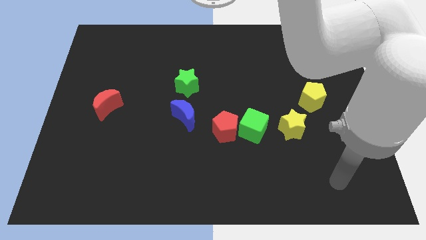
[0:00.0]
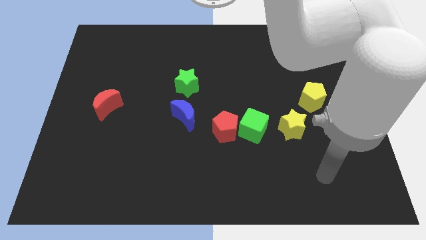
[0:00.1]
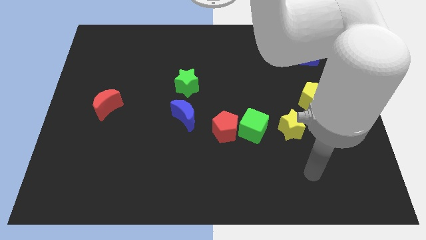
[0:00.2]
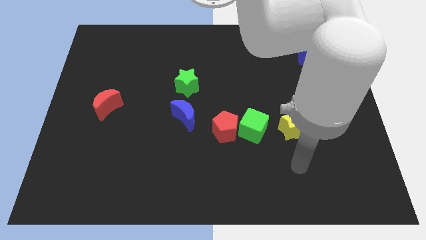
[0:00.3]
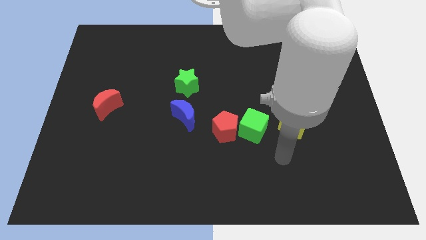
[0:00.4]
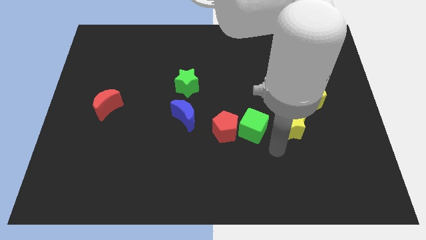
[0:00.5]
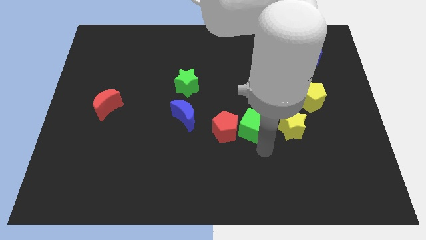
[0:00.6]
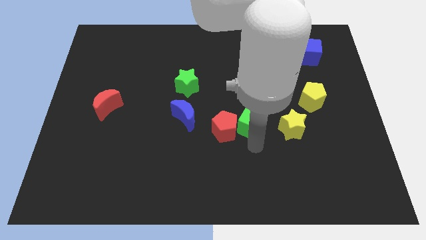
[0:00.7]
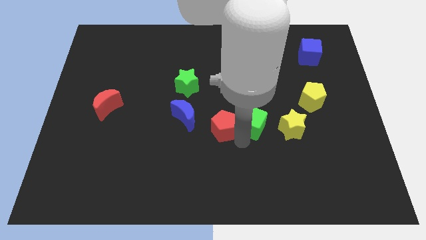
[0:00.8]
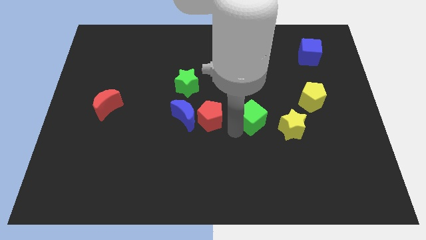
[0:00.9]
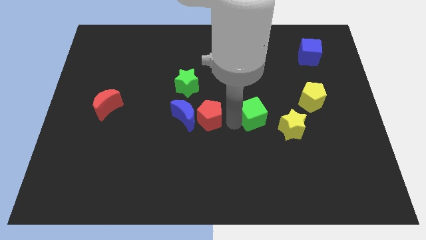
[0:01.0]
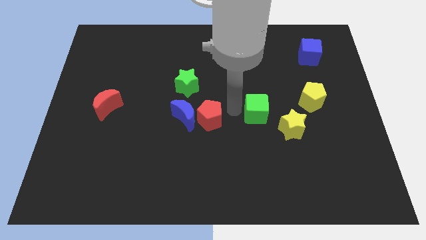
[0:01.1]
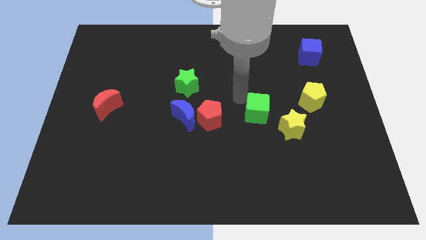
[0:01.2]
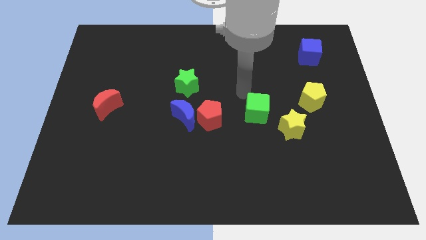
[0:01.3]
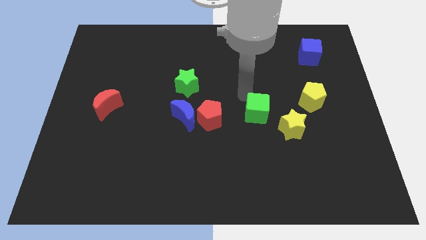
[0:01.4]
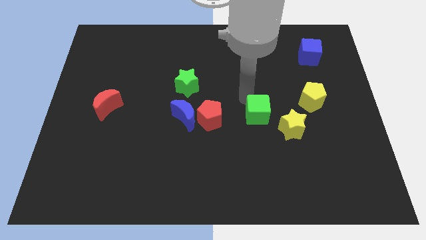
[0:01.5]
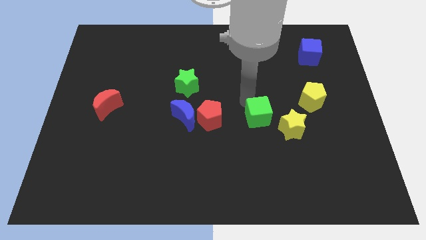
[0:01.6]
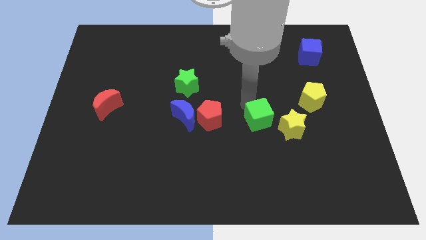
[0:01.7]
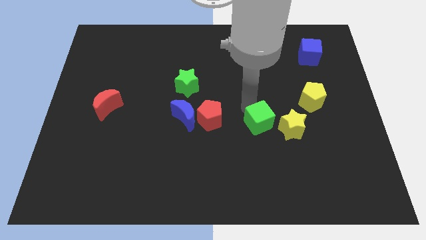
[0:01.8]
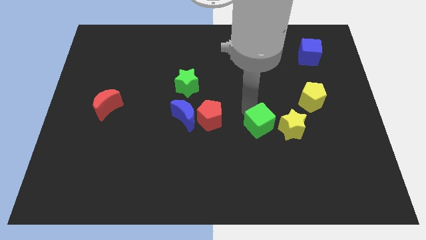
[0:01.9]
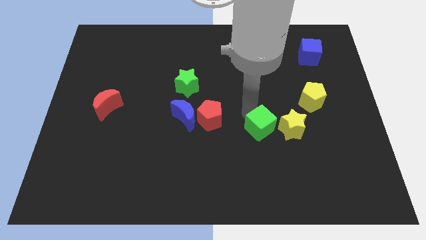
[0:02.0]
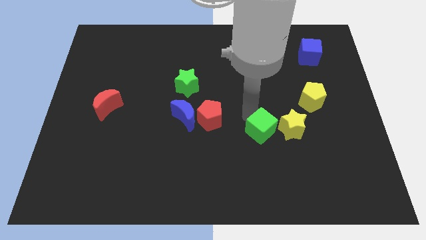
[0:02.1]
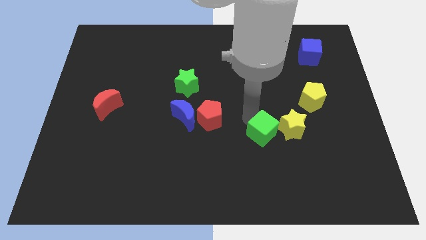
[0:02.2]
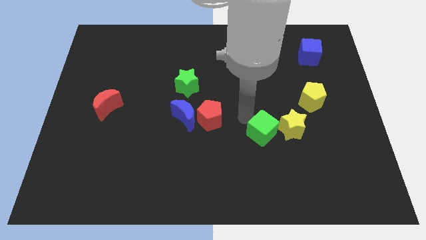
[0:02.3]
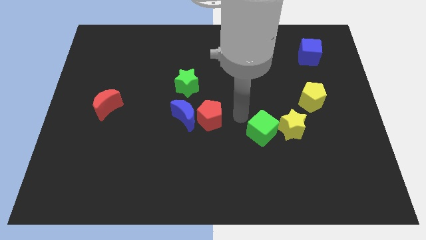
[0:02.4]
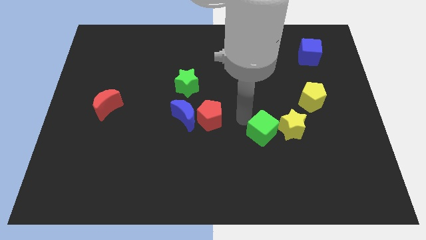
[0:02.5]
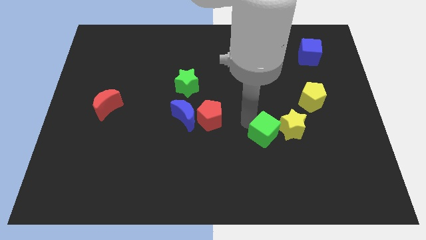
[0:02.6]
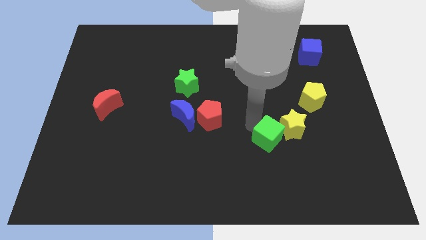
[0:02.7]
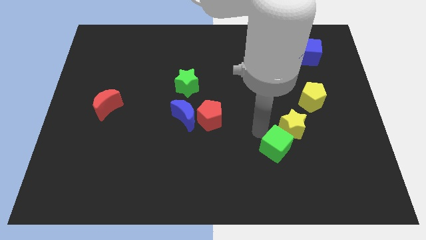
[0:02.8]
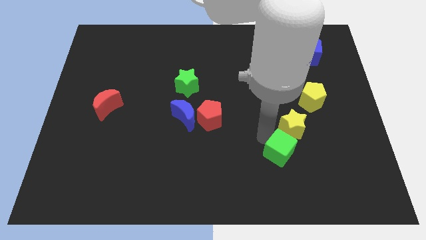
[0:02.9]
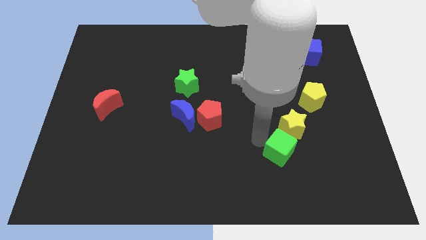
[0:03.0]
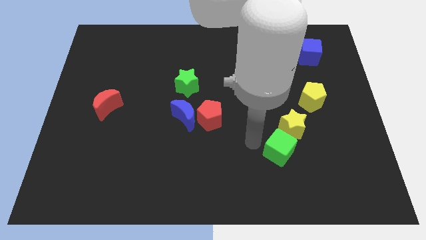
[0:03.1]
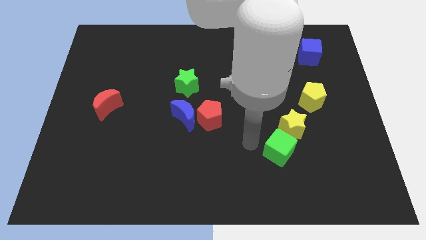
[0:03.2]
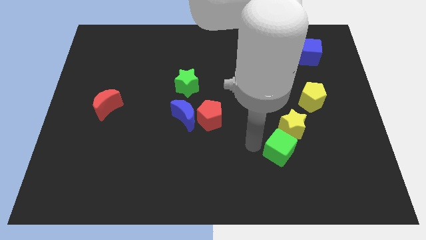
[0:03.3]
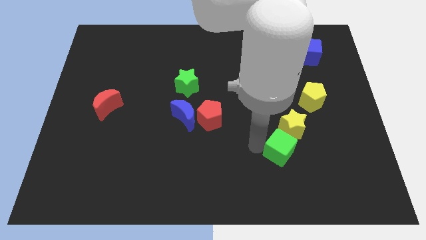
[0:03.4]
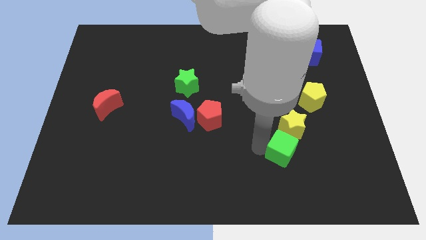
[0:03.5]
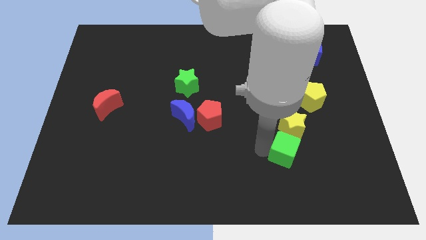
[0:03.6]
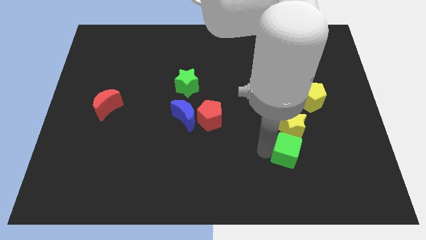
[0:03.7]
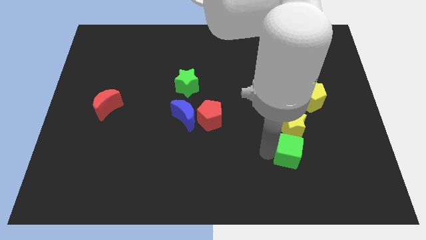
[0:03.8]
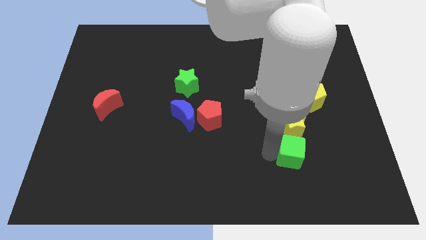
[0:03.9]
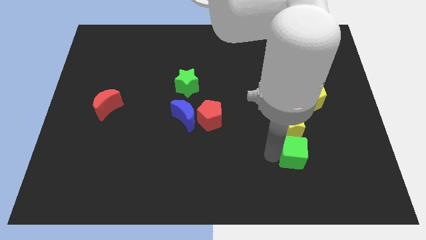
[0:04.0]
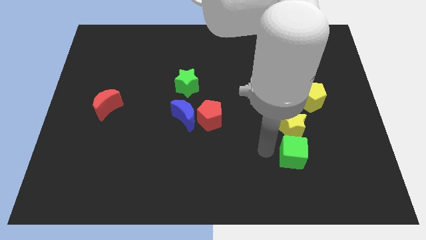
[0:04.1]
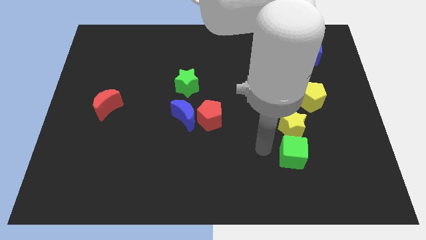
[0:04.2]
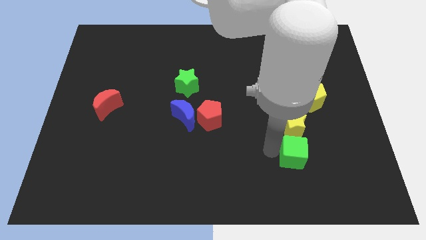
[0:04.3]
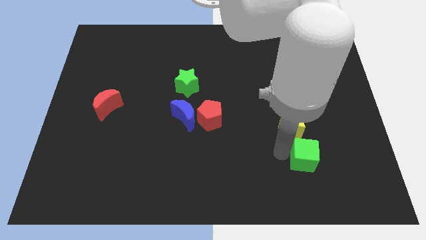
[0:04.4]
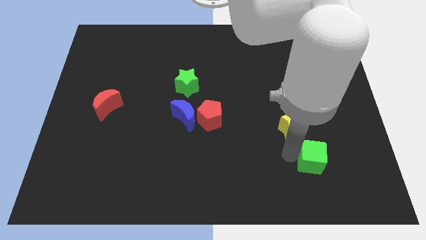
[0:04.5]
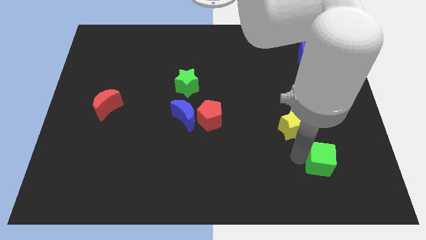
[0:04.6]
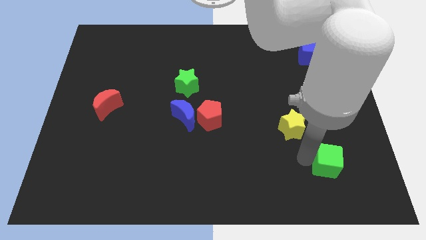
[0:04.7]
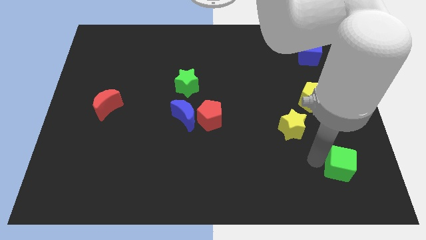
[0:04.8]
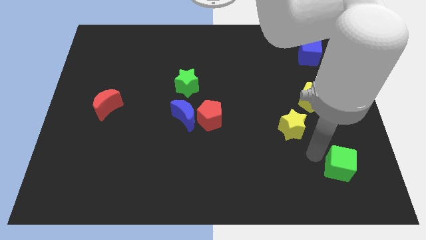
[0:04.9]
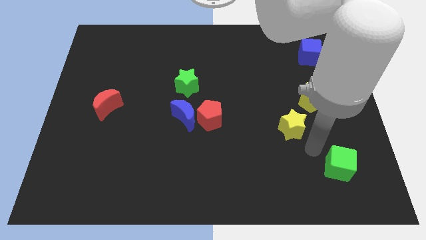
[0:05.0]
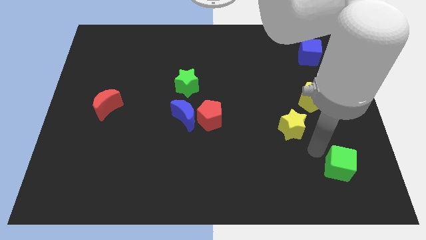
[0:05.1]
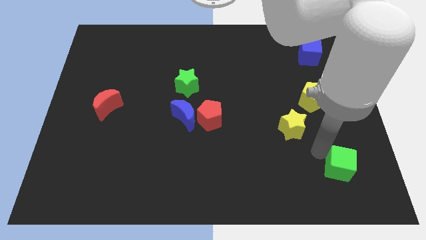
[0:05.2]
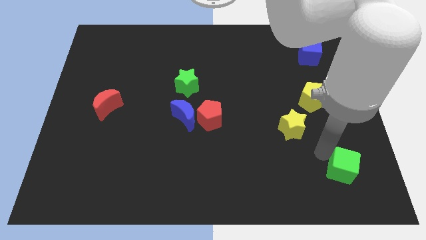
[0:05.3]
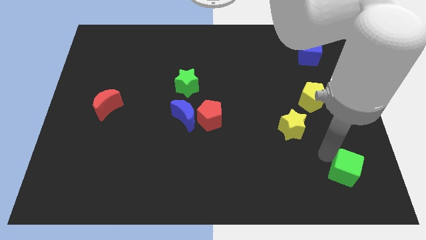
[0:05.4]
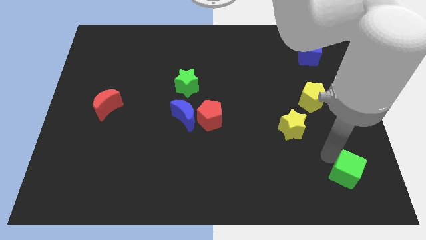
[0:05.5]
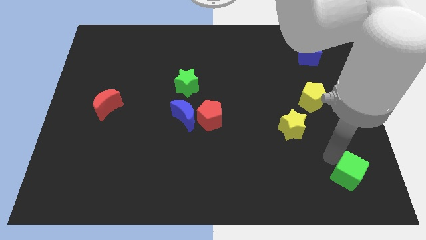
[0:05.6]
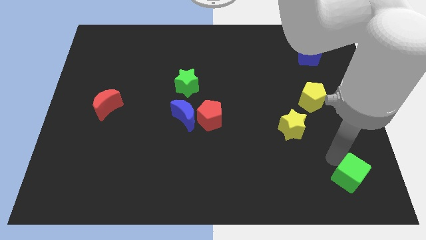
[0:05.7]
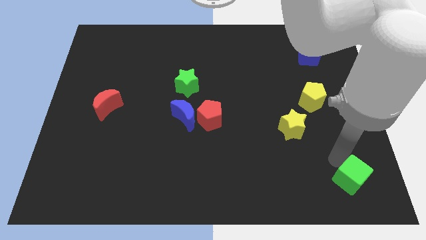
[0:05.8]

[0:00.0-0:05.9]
push the green cube to the lower right corner
